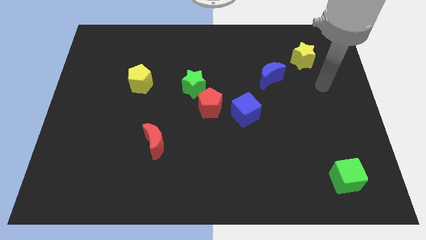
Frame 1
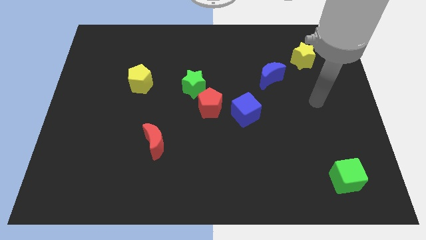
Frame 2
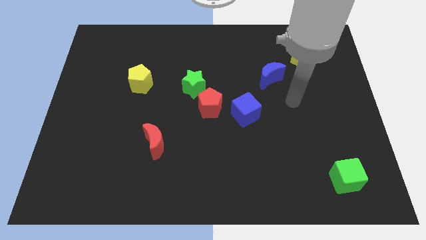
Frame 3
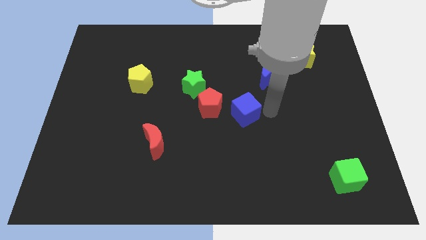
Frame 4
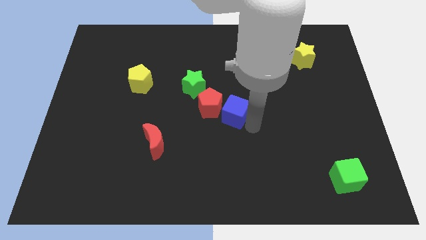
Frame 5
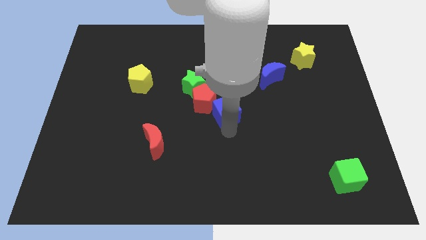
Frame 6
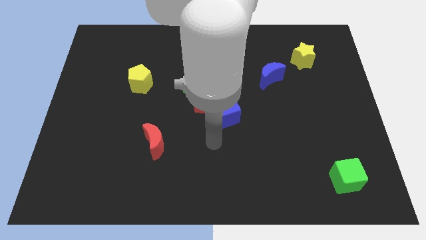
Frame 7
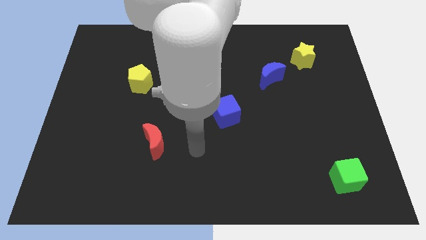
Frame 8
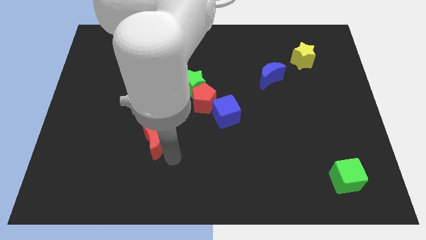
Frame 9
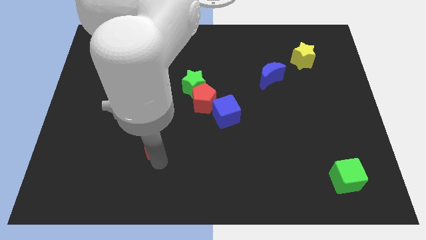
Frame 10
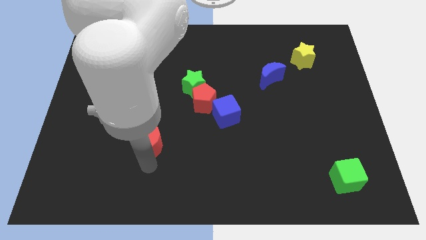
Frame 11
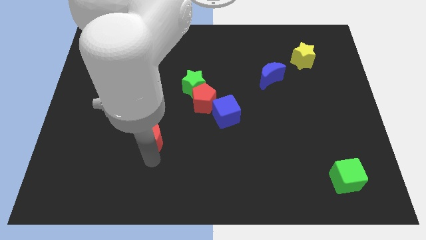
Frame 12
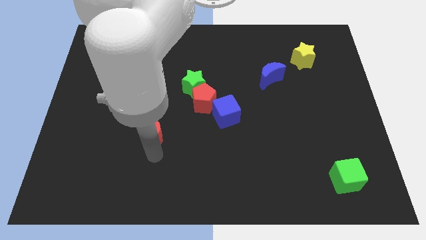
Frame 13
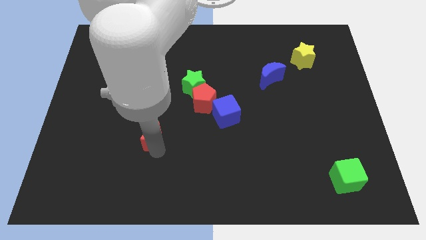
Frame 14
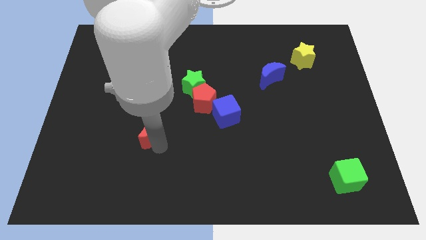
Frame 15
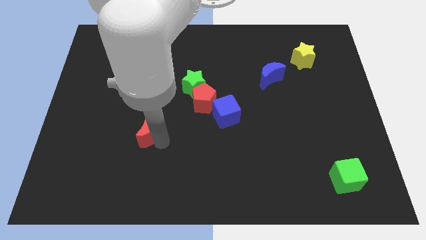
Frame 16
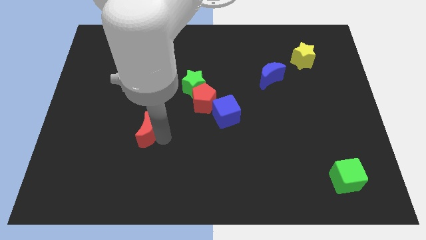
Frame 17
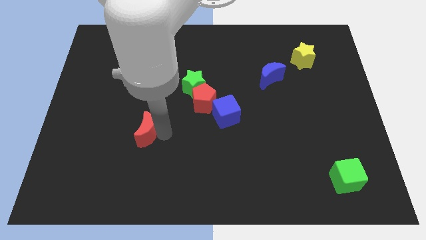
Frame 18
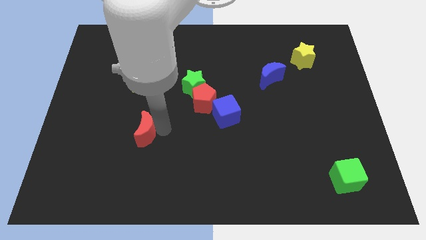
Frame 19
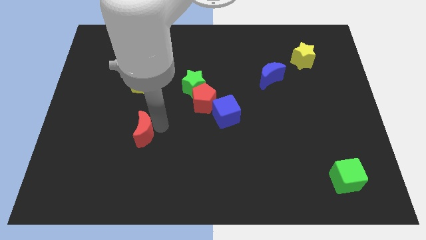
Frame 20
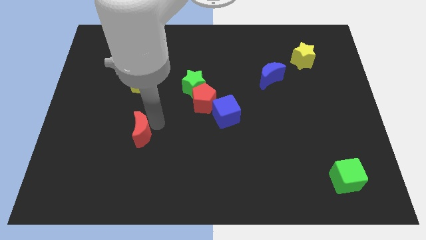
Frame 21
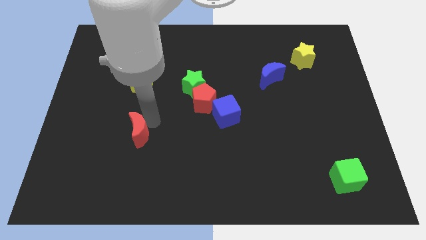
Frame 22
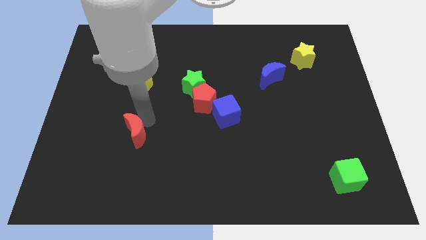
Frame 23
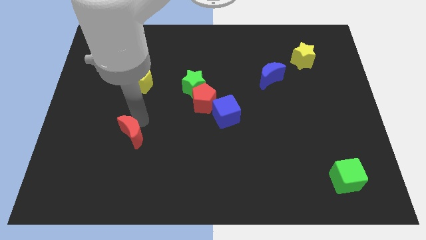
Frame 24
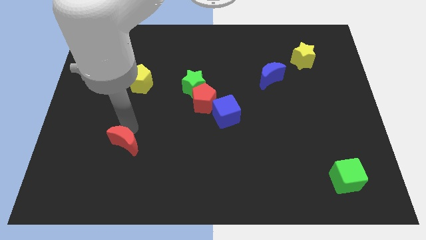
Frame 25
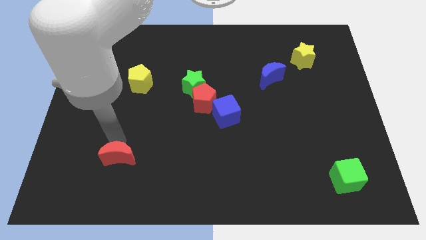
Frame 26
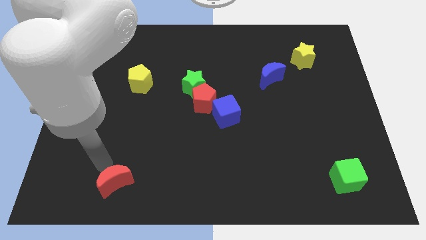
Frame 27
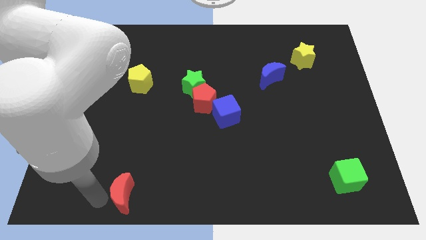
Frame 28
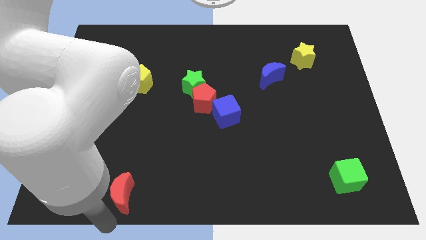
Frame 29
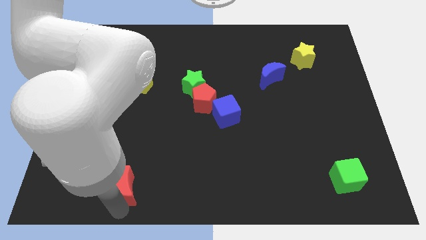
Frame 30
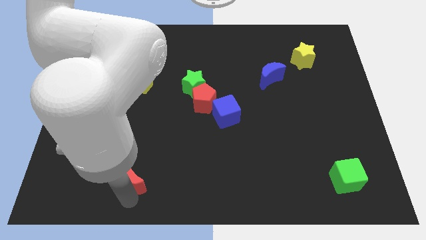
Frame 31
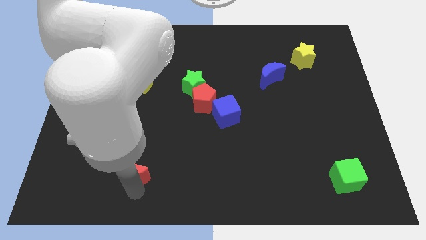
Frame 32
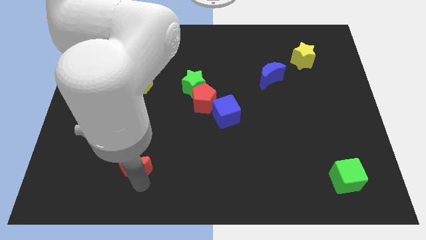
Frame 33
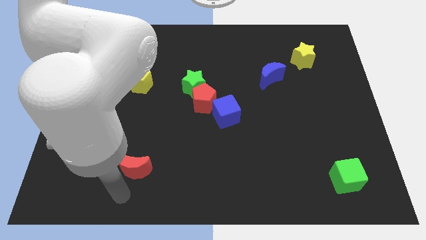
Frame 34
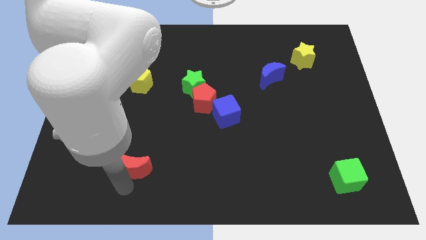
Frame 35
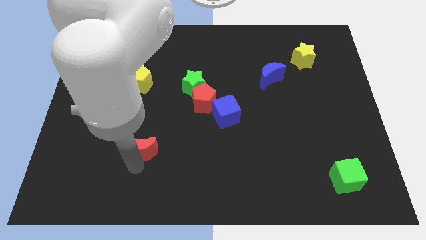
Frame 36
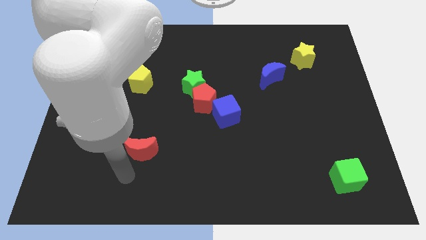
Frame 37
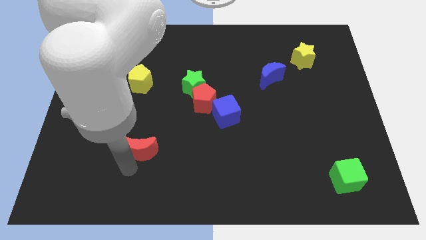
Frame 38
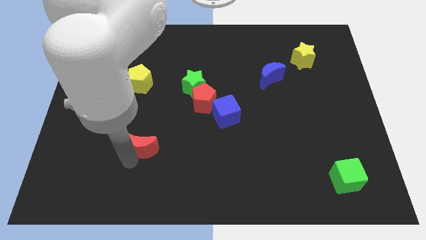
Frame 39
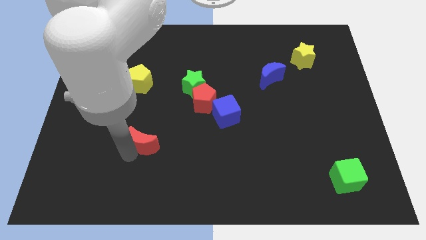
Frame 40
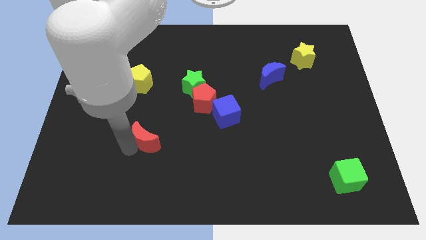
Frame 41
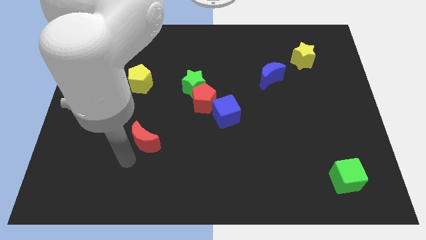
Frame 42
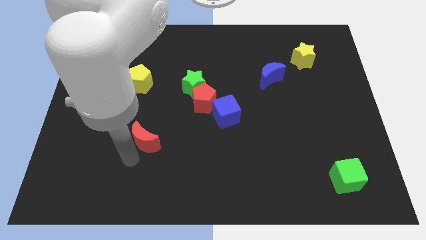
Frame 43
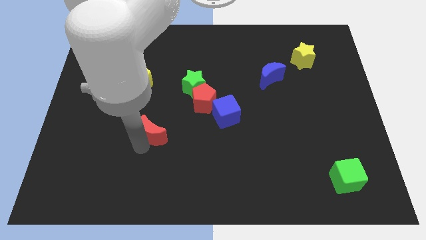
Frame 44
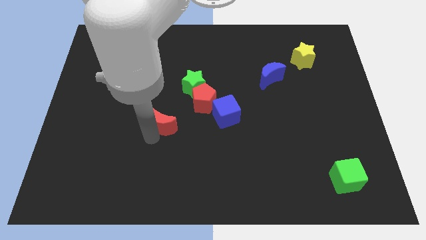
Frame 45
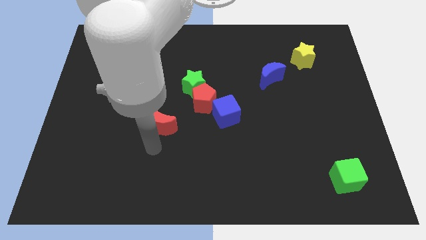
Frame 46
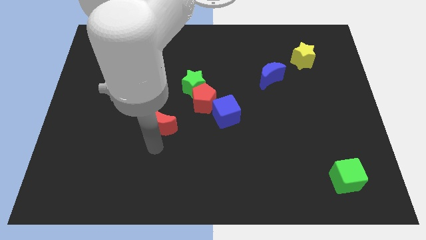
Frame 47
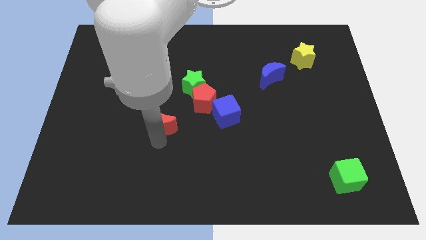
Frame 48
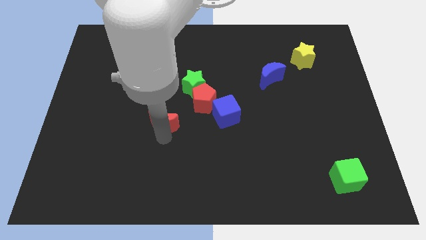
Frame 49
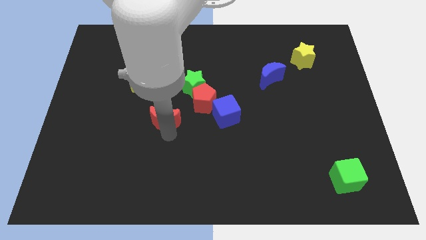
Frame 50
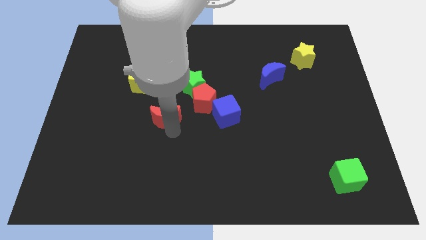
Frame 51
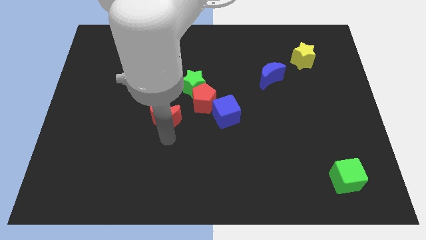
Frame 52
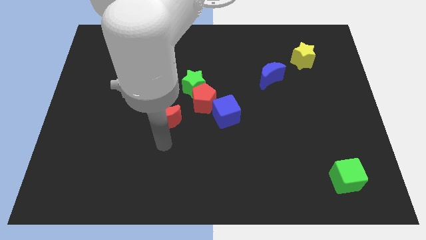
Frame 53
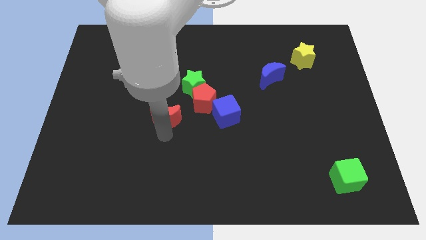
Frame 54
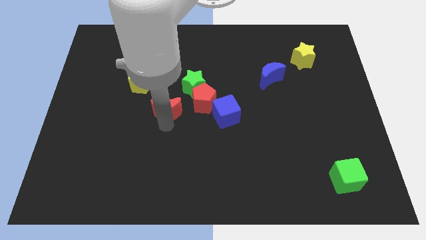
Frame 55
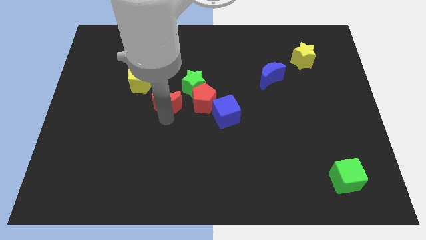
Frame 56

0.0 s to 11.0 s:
move the red moon slightly upwards and to the right diagonally

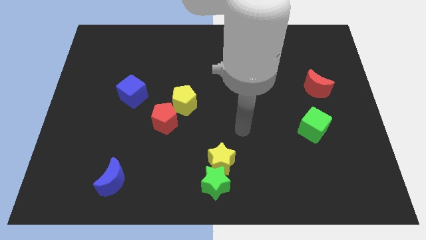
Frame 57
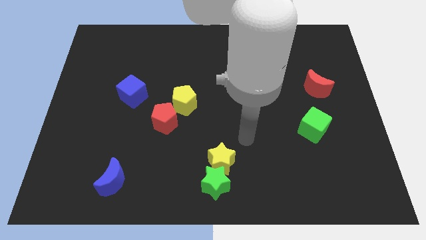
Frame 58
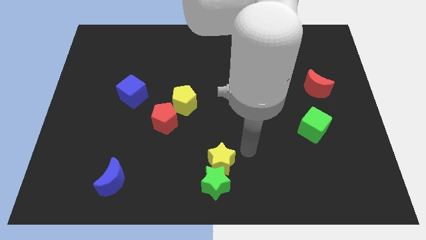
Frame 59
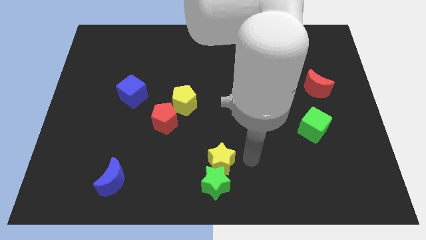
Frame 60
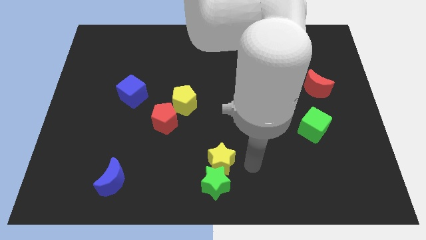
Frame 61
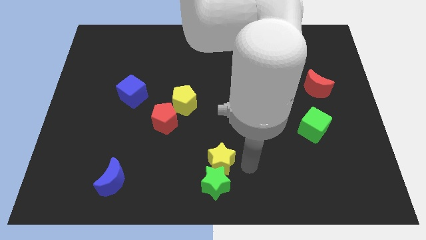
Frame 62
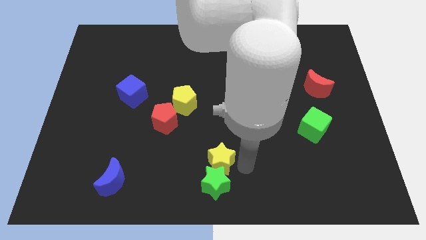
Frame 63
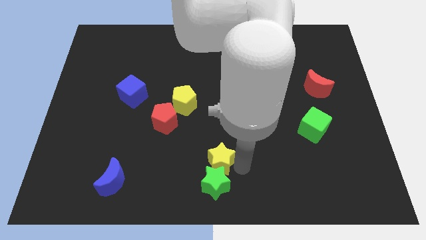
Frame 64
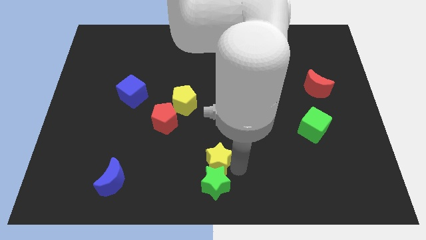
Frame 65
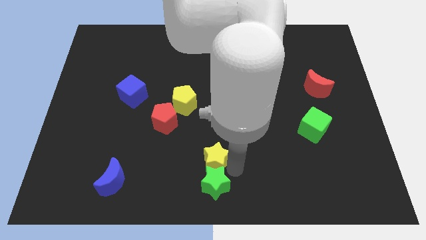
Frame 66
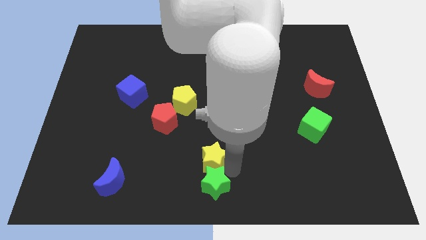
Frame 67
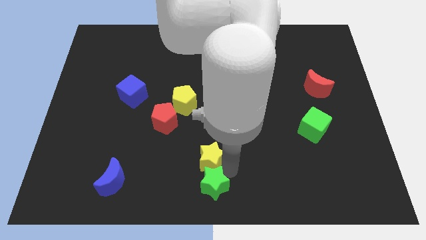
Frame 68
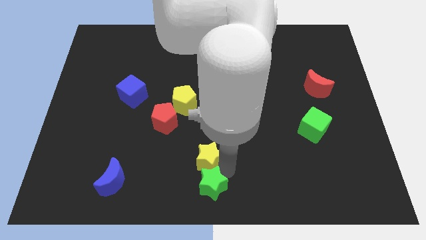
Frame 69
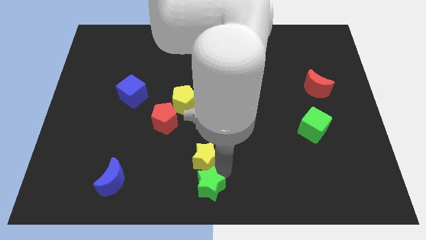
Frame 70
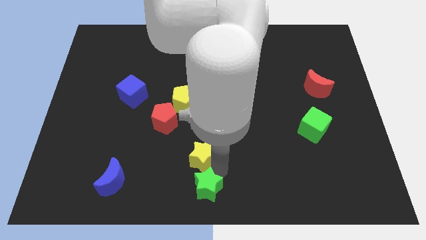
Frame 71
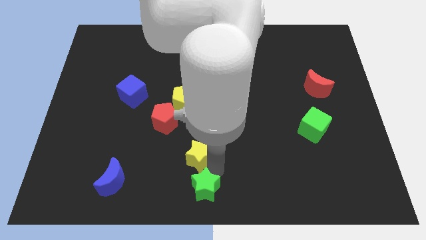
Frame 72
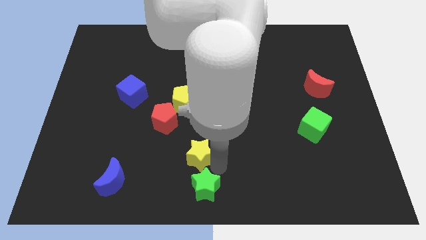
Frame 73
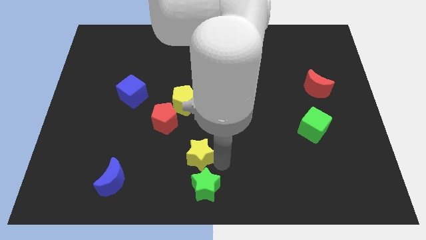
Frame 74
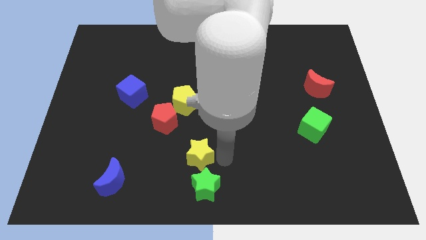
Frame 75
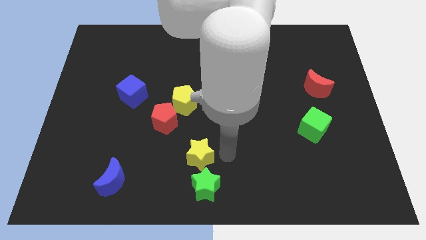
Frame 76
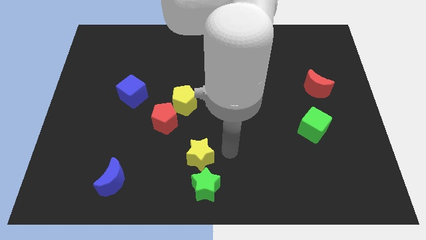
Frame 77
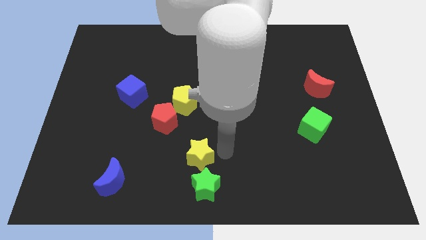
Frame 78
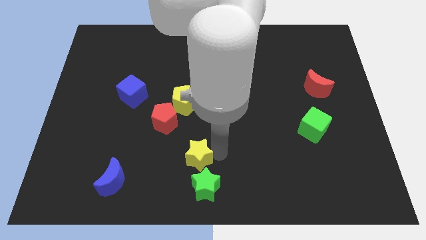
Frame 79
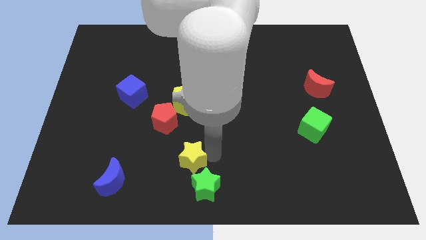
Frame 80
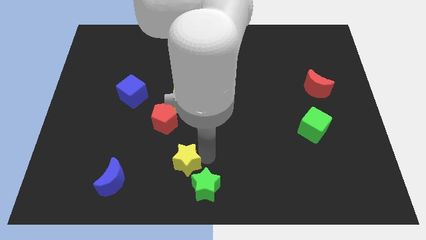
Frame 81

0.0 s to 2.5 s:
slightly move the yellow star left
